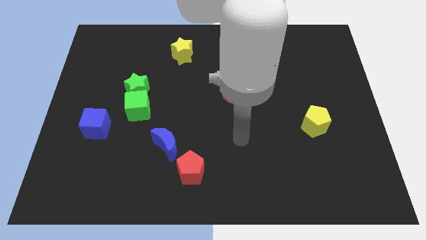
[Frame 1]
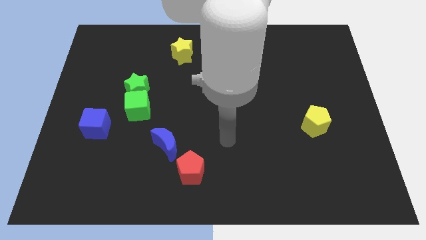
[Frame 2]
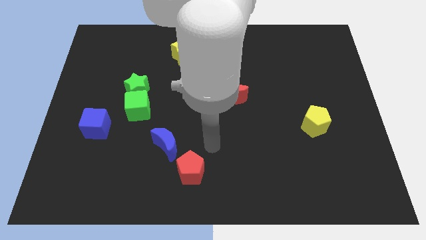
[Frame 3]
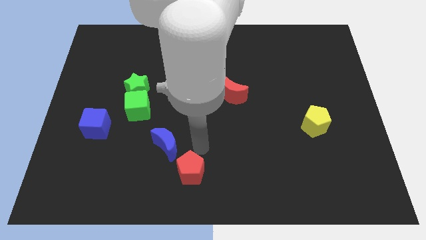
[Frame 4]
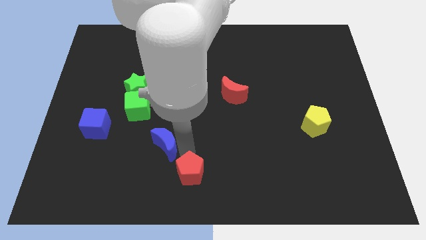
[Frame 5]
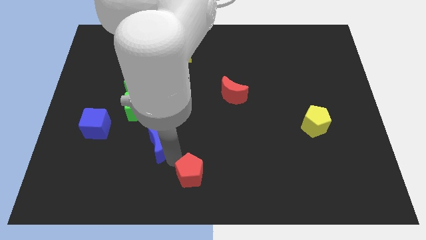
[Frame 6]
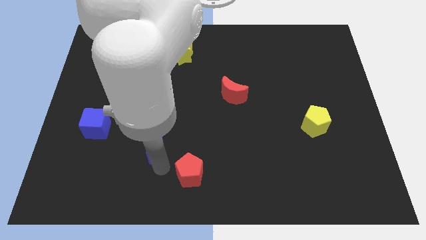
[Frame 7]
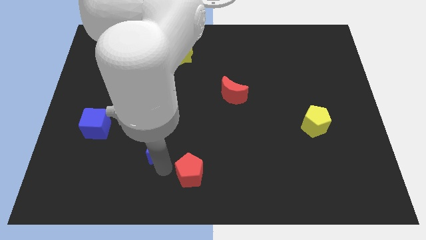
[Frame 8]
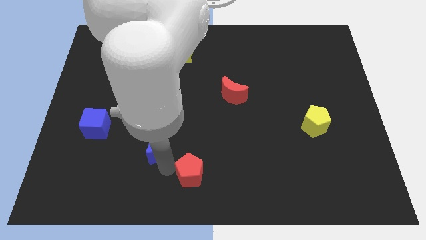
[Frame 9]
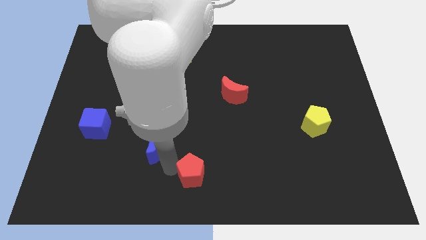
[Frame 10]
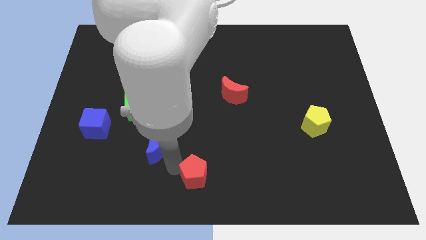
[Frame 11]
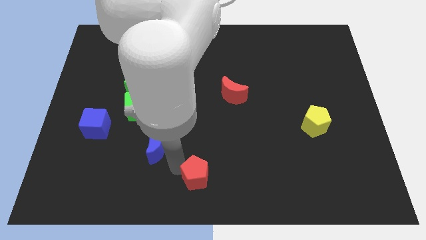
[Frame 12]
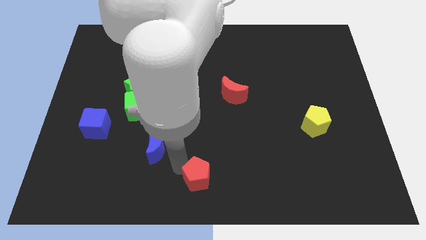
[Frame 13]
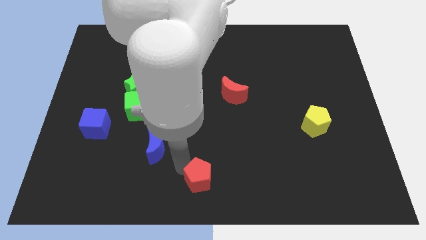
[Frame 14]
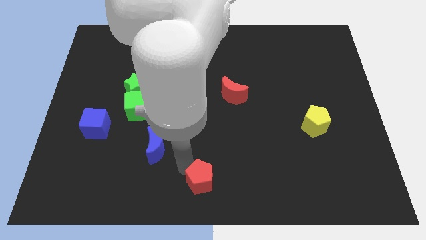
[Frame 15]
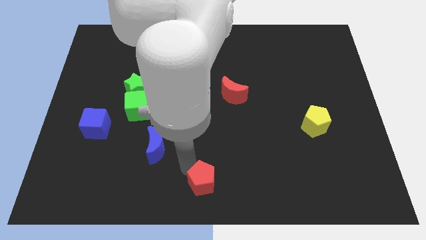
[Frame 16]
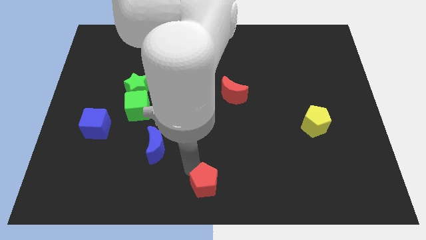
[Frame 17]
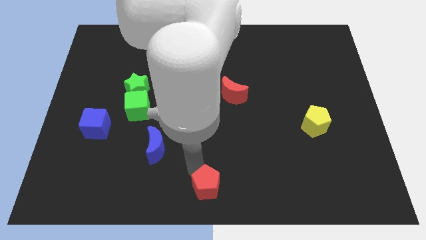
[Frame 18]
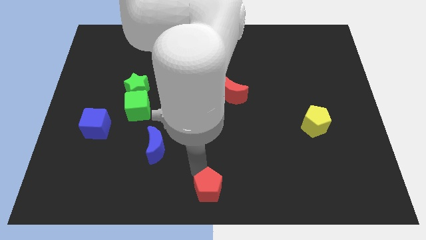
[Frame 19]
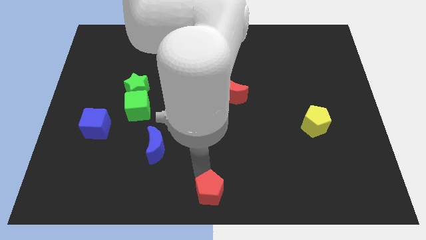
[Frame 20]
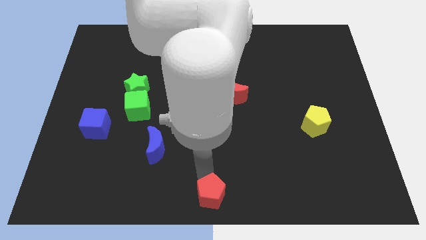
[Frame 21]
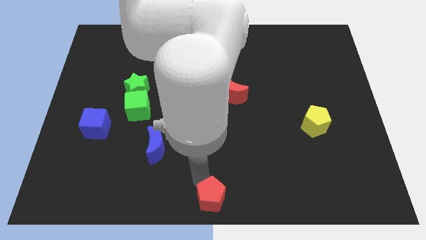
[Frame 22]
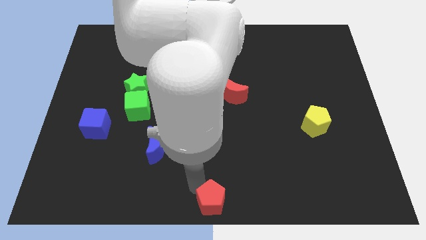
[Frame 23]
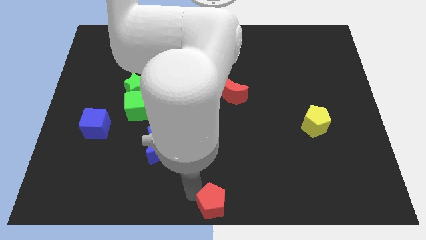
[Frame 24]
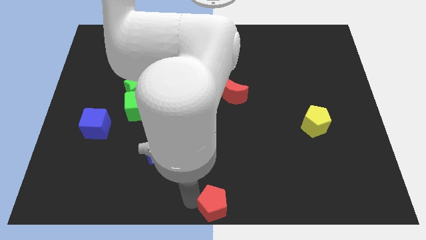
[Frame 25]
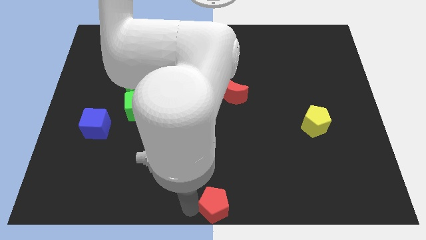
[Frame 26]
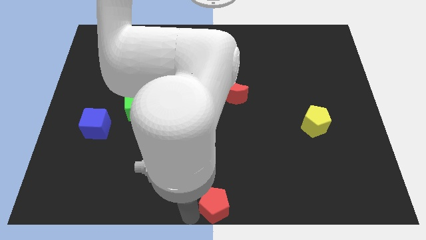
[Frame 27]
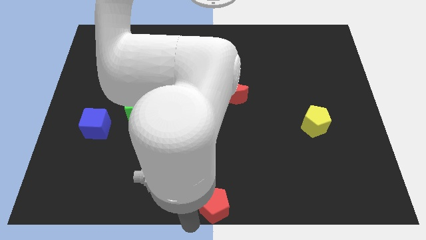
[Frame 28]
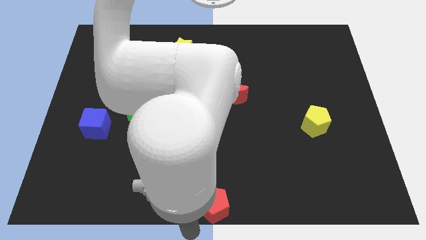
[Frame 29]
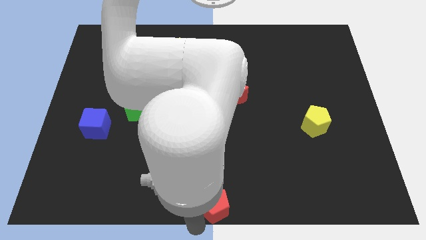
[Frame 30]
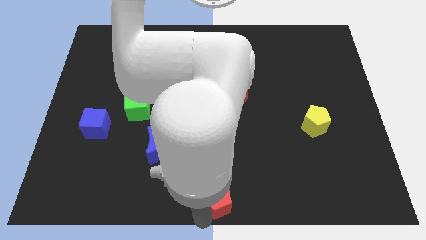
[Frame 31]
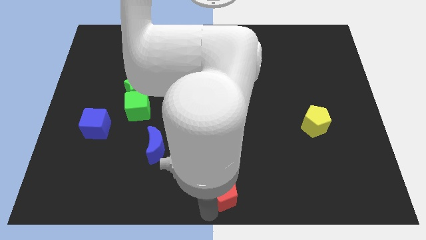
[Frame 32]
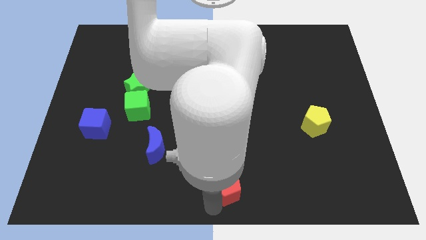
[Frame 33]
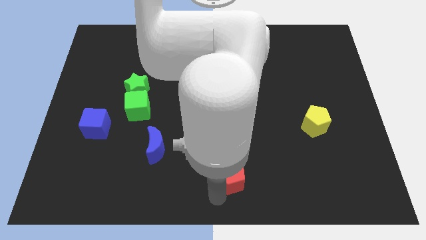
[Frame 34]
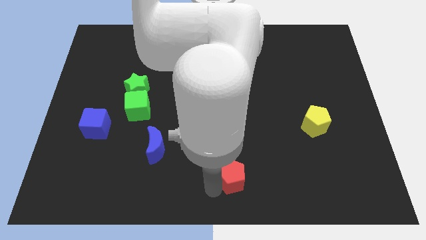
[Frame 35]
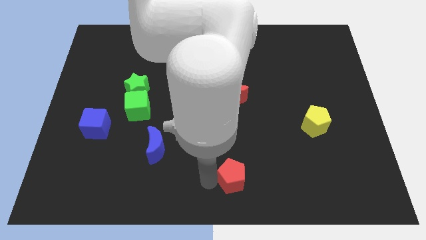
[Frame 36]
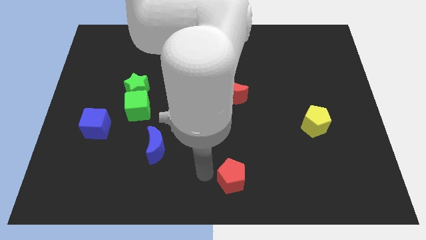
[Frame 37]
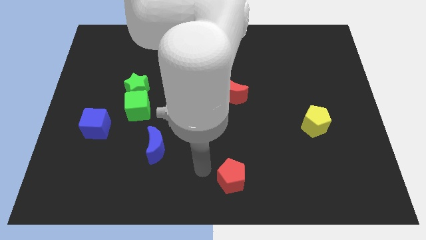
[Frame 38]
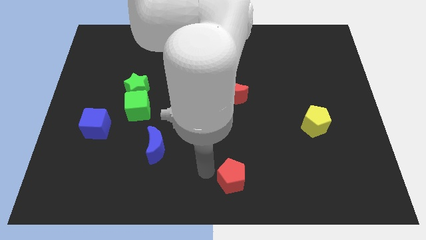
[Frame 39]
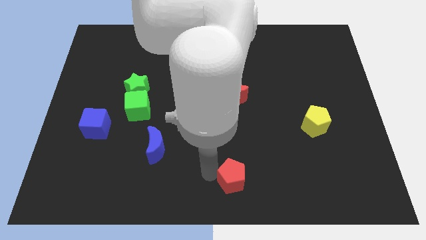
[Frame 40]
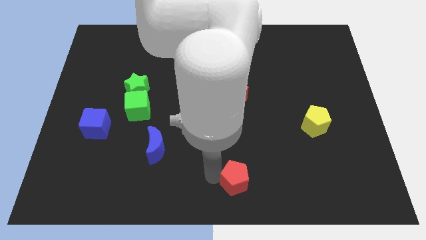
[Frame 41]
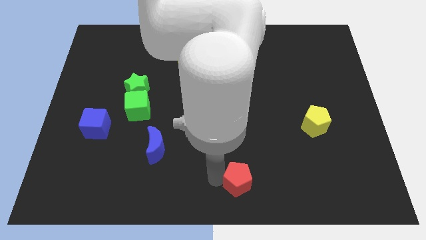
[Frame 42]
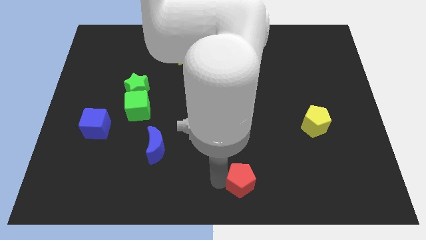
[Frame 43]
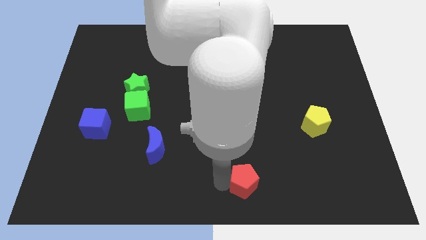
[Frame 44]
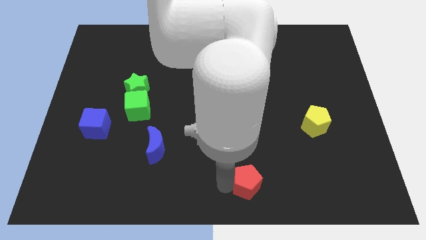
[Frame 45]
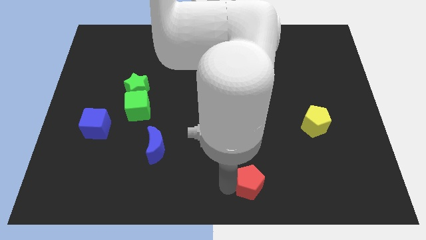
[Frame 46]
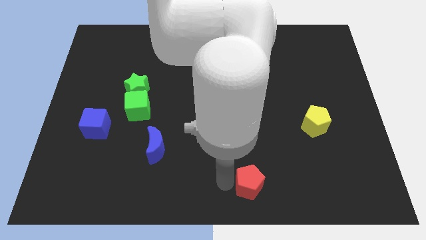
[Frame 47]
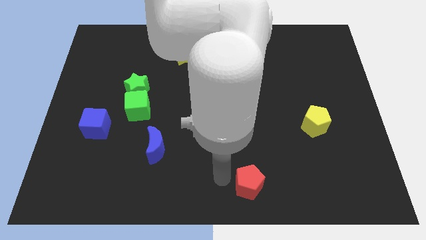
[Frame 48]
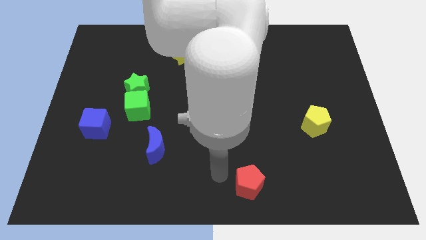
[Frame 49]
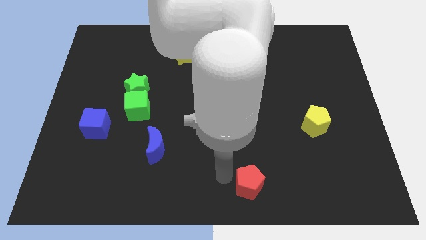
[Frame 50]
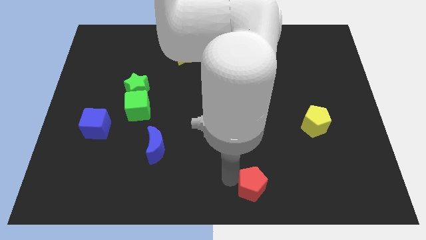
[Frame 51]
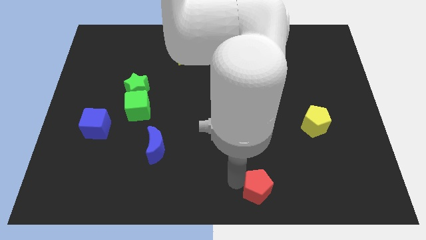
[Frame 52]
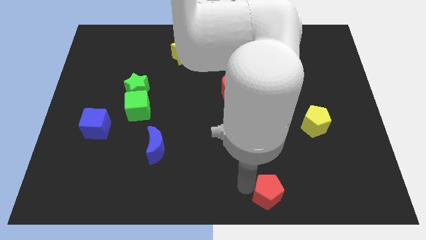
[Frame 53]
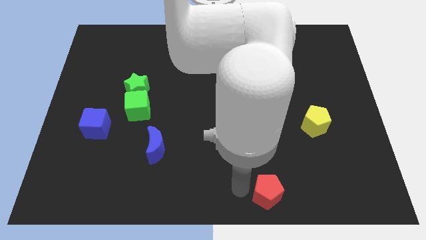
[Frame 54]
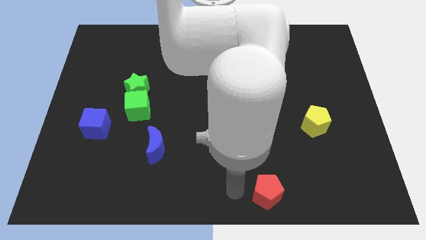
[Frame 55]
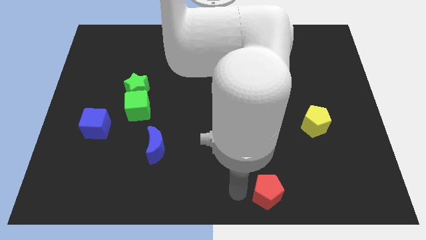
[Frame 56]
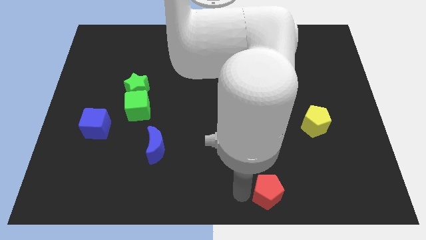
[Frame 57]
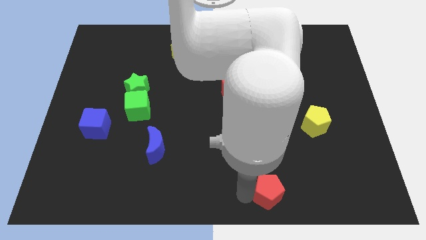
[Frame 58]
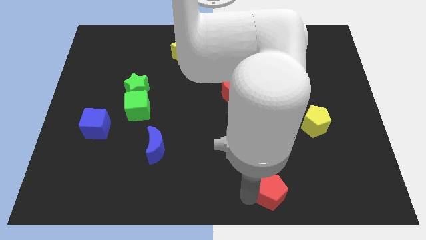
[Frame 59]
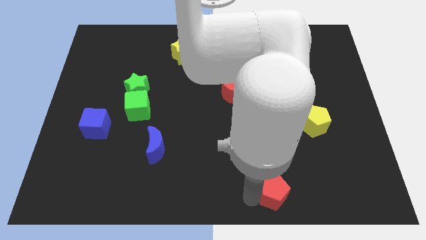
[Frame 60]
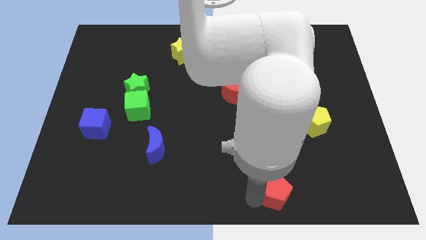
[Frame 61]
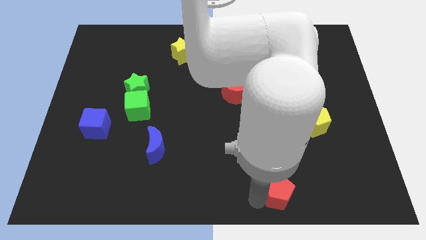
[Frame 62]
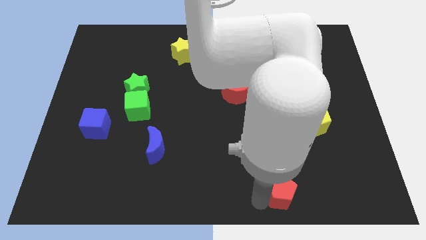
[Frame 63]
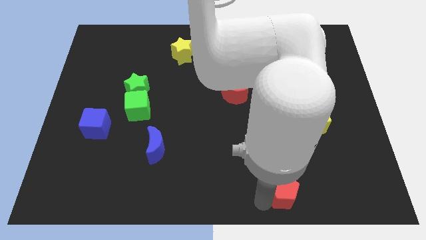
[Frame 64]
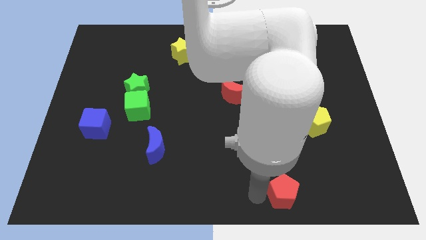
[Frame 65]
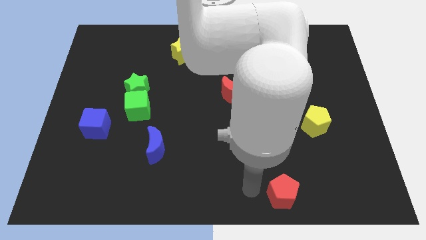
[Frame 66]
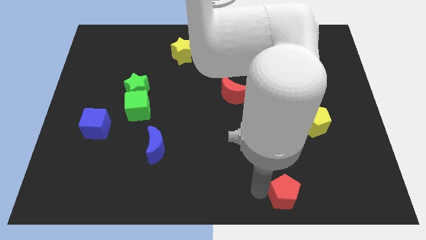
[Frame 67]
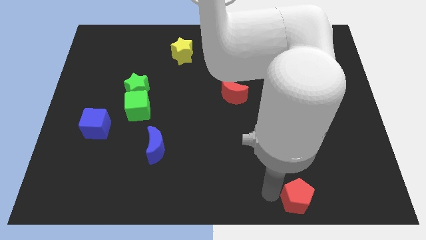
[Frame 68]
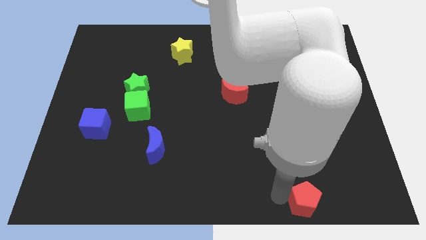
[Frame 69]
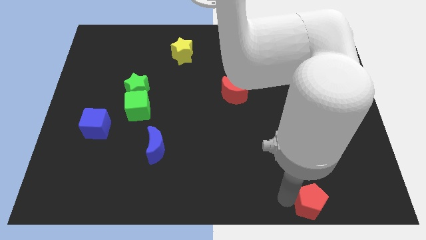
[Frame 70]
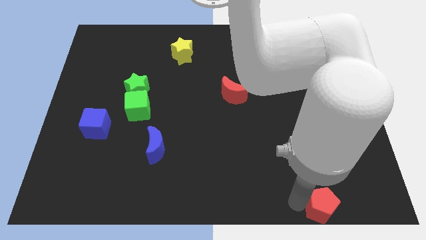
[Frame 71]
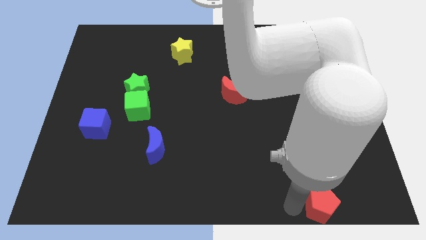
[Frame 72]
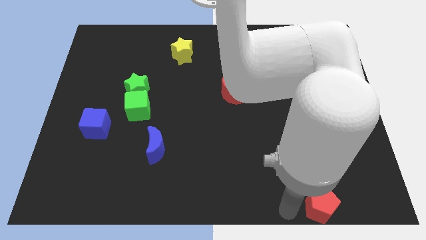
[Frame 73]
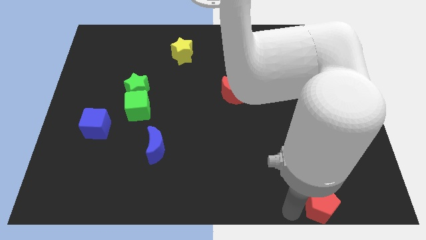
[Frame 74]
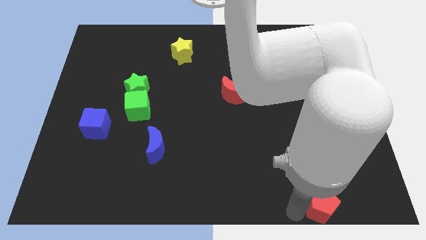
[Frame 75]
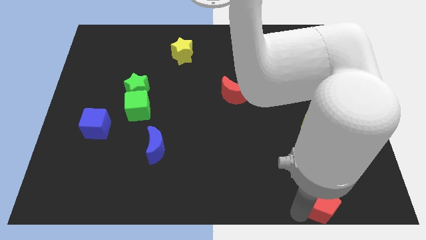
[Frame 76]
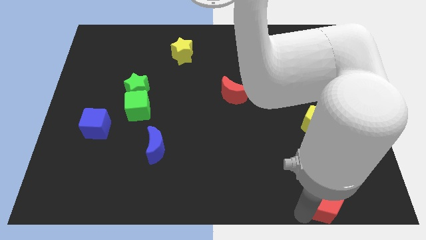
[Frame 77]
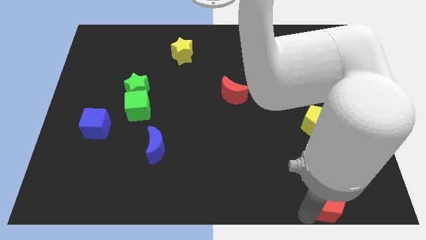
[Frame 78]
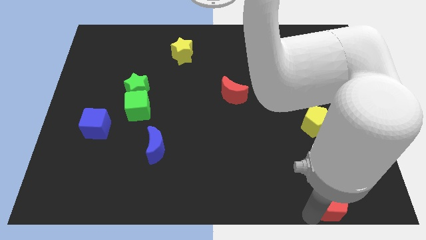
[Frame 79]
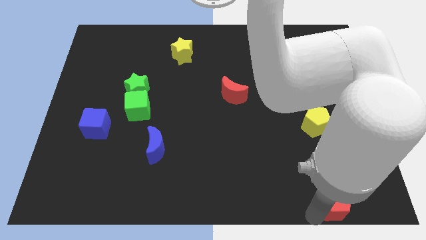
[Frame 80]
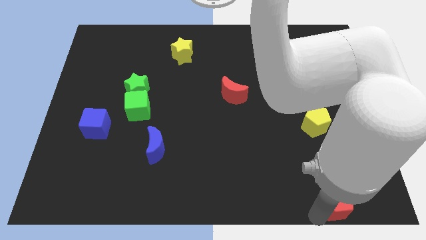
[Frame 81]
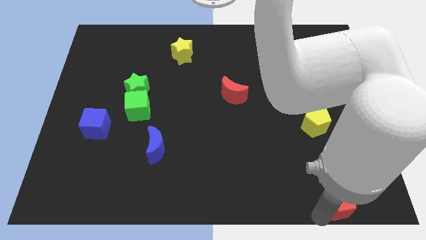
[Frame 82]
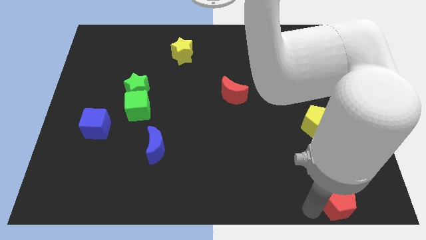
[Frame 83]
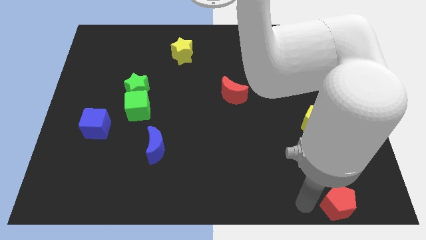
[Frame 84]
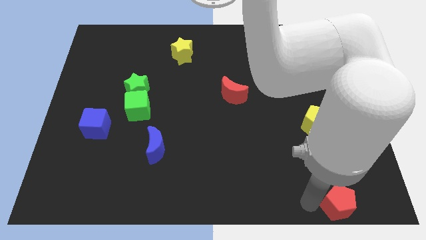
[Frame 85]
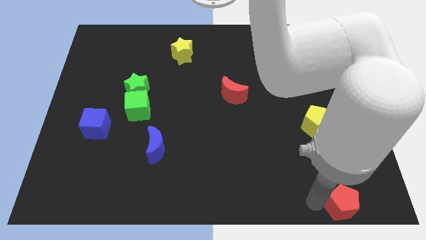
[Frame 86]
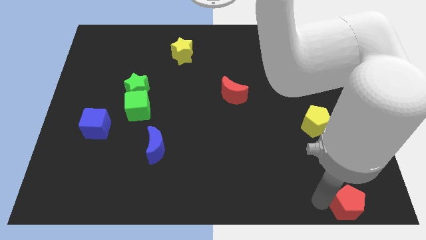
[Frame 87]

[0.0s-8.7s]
move the red pentagon to the lower right corner
